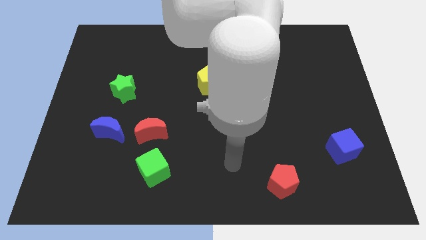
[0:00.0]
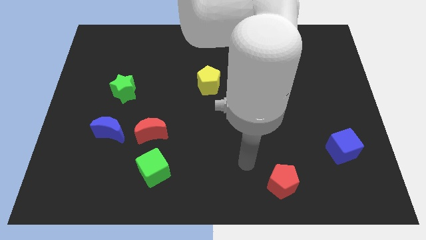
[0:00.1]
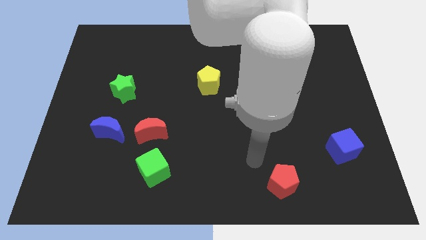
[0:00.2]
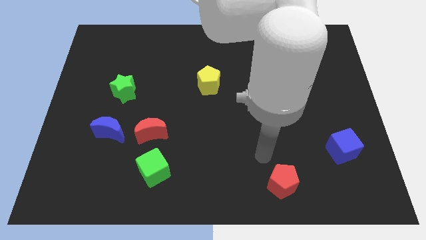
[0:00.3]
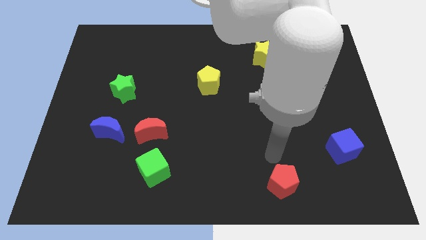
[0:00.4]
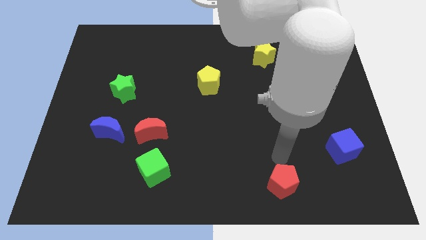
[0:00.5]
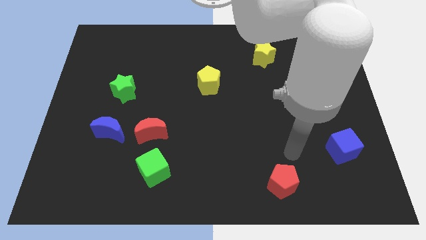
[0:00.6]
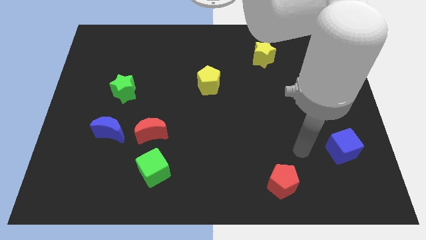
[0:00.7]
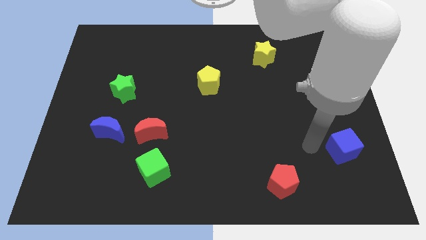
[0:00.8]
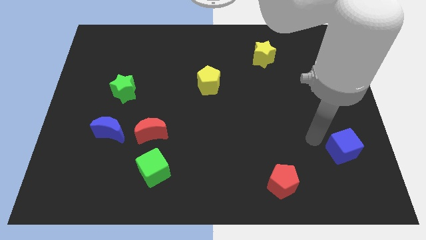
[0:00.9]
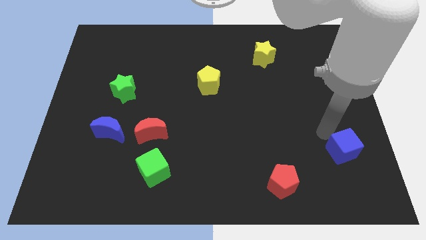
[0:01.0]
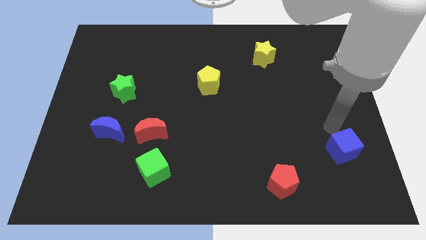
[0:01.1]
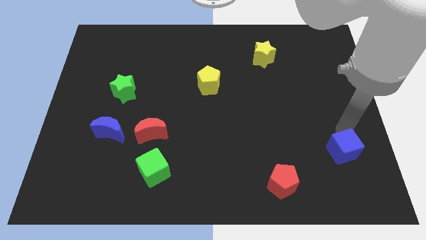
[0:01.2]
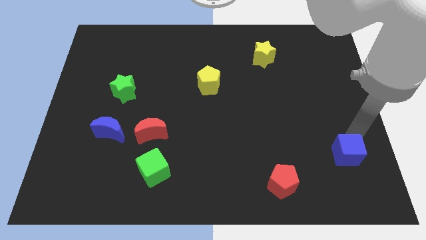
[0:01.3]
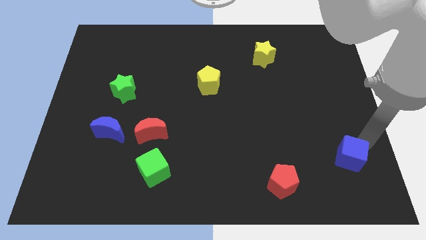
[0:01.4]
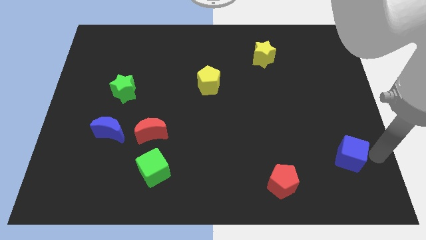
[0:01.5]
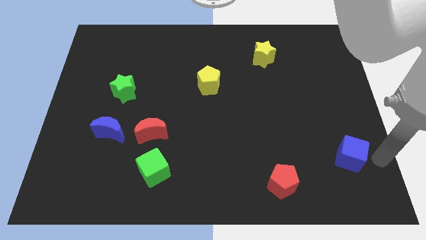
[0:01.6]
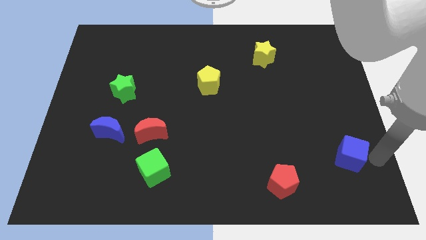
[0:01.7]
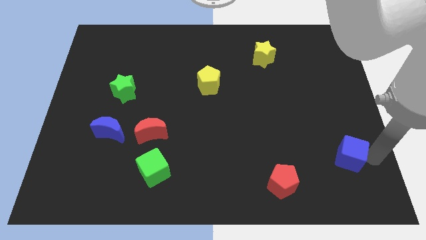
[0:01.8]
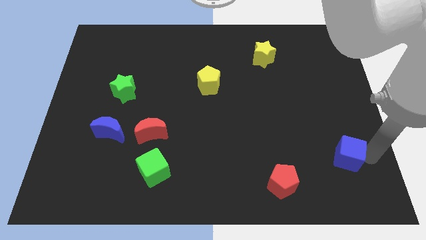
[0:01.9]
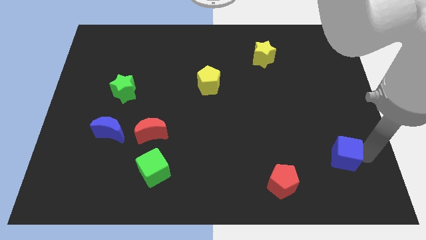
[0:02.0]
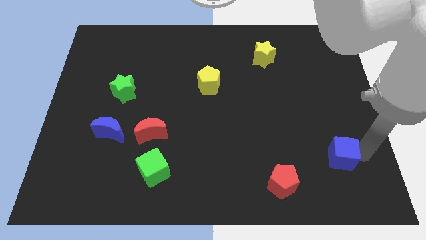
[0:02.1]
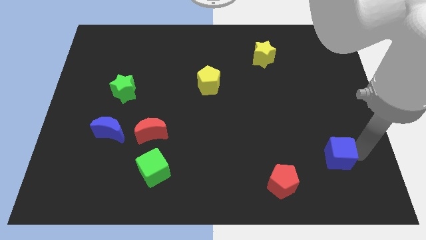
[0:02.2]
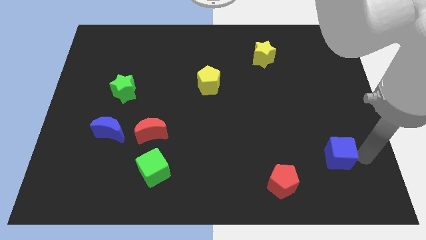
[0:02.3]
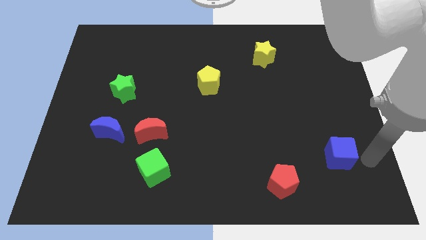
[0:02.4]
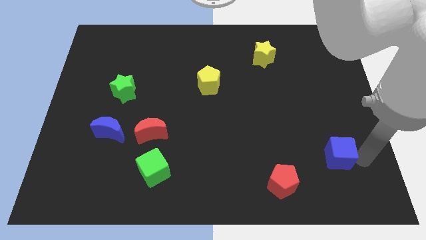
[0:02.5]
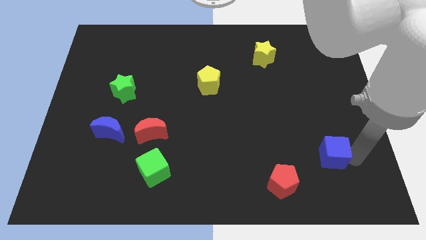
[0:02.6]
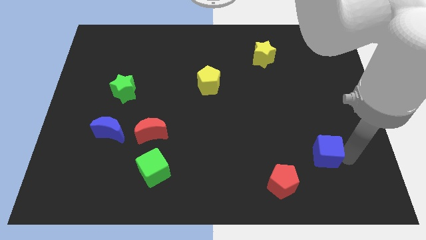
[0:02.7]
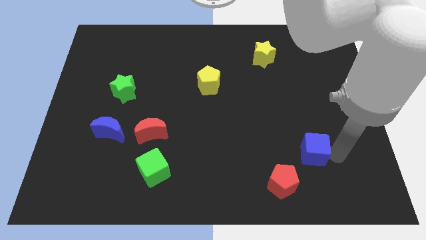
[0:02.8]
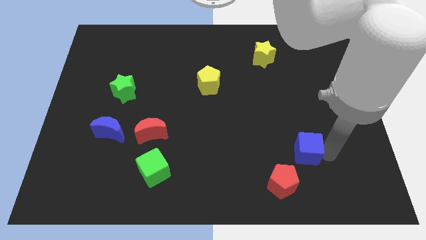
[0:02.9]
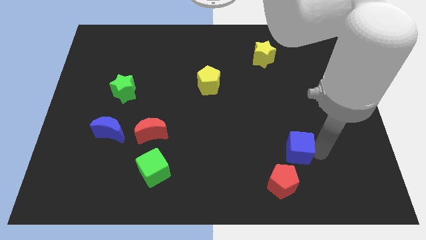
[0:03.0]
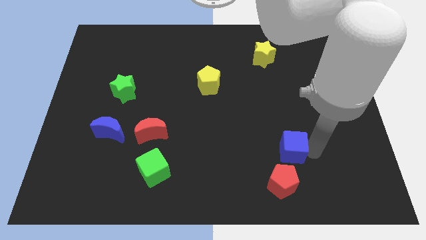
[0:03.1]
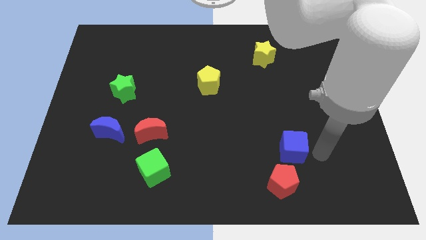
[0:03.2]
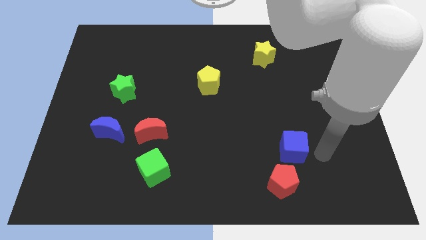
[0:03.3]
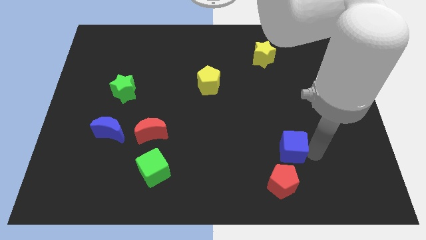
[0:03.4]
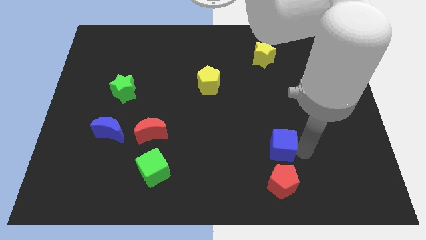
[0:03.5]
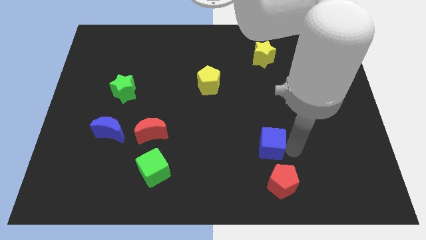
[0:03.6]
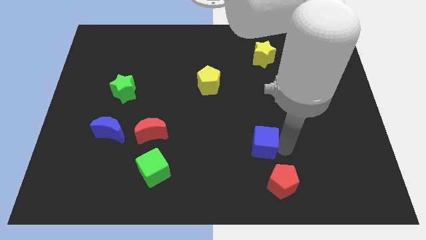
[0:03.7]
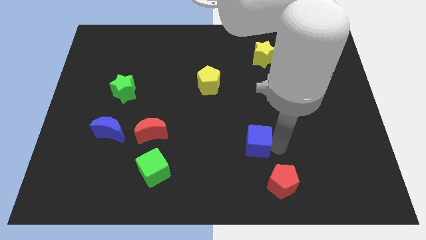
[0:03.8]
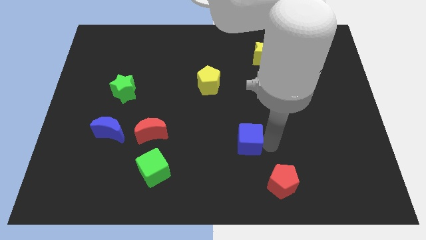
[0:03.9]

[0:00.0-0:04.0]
push the blue cube left

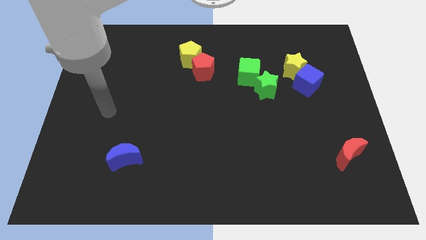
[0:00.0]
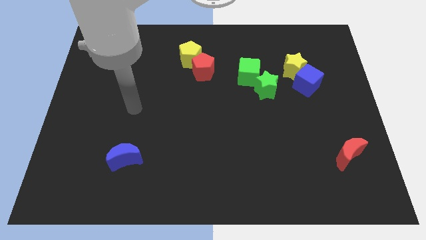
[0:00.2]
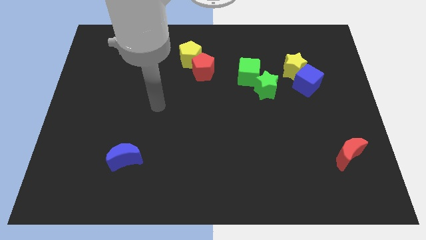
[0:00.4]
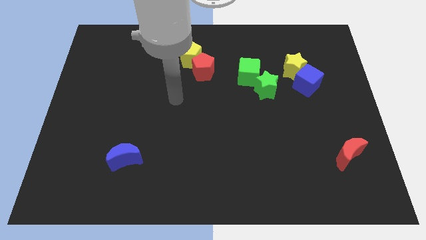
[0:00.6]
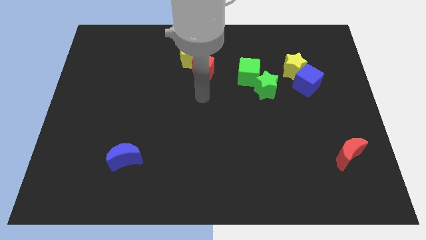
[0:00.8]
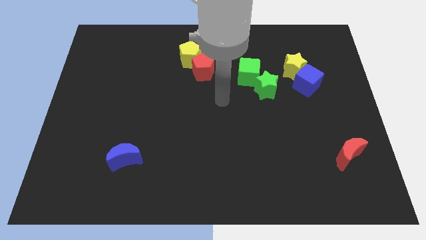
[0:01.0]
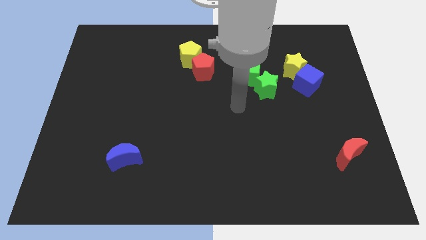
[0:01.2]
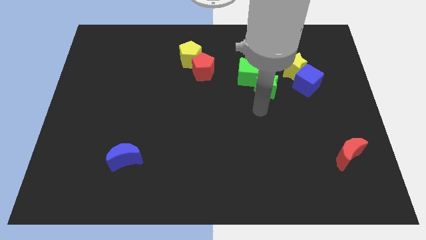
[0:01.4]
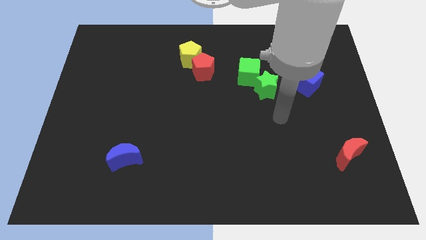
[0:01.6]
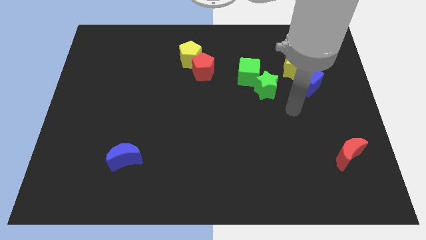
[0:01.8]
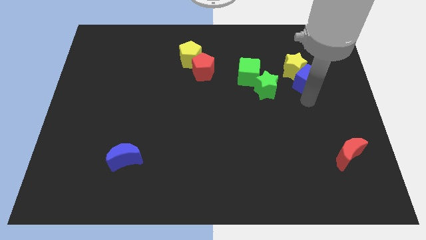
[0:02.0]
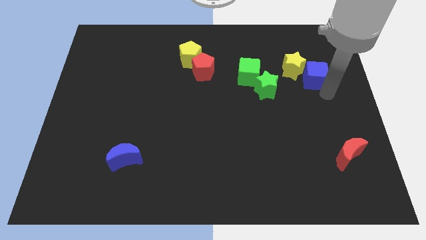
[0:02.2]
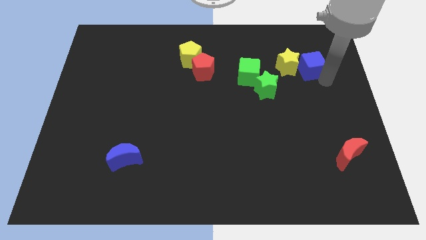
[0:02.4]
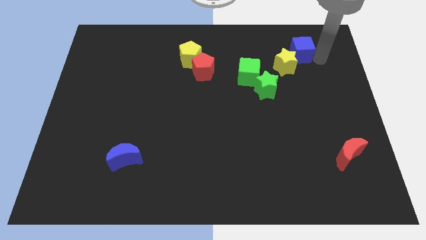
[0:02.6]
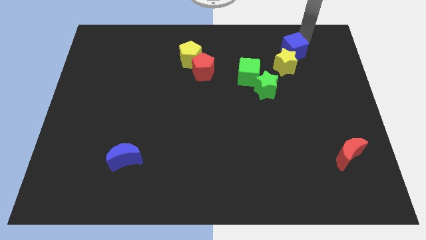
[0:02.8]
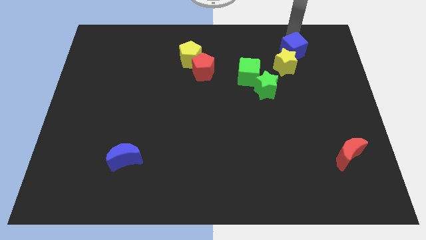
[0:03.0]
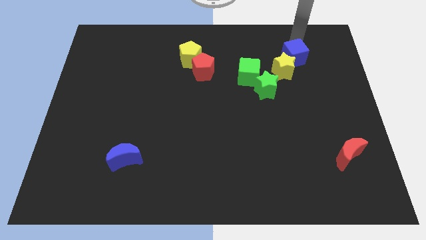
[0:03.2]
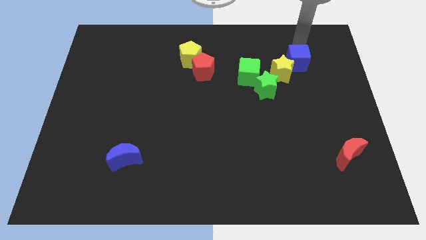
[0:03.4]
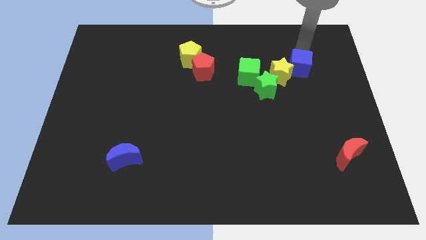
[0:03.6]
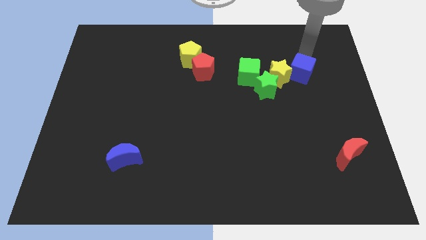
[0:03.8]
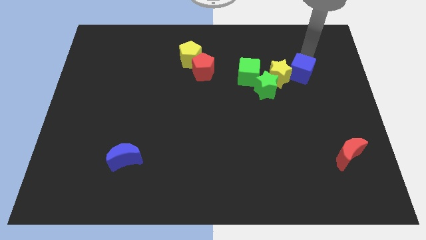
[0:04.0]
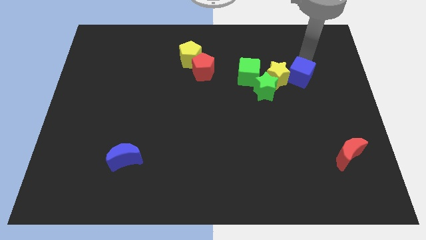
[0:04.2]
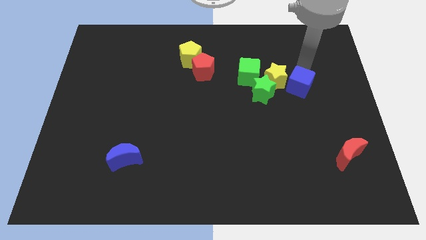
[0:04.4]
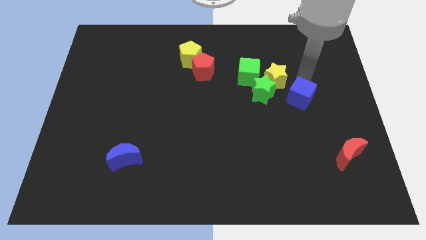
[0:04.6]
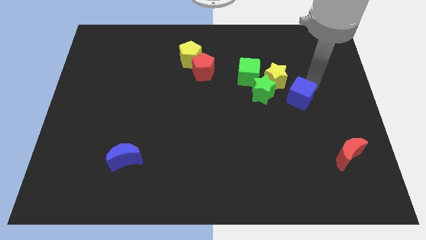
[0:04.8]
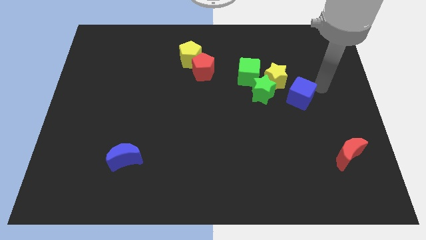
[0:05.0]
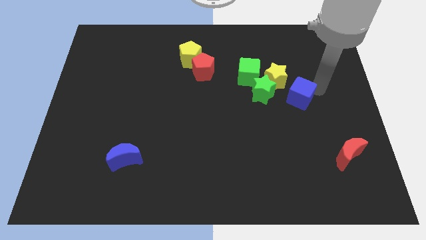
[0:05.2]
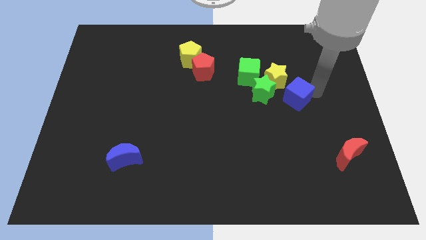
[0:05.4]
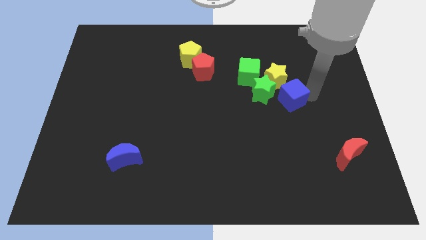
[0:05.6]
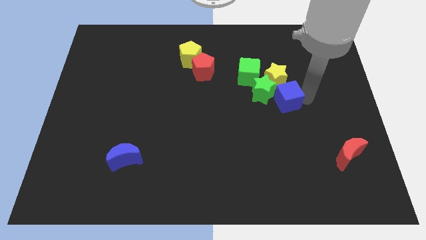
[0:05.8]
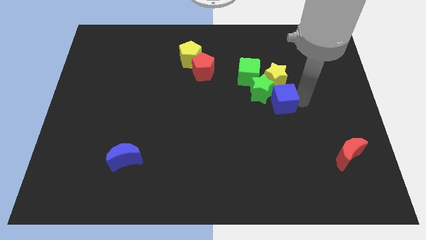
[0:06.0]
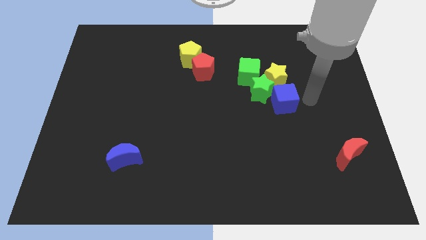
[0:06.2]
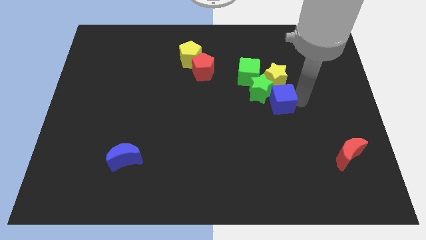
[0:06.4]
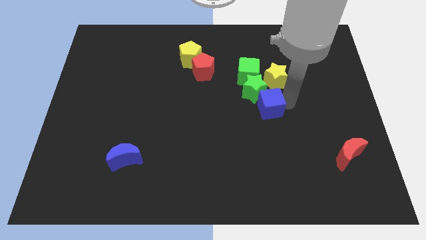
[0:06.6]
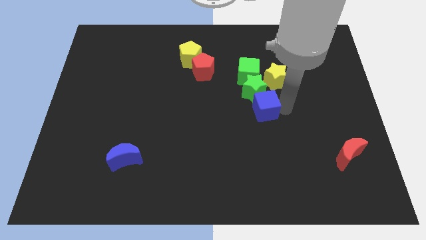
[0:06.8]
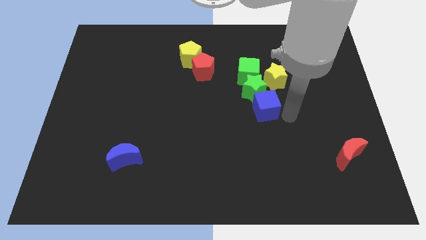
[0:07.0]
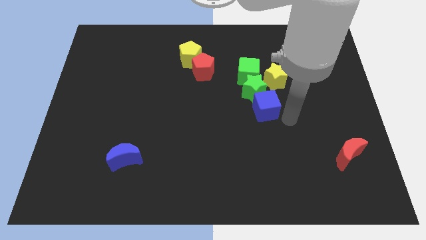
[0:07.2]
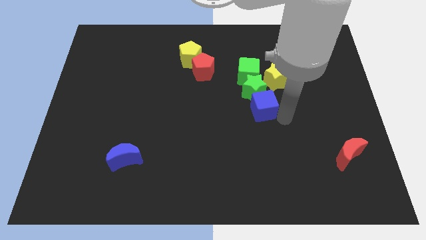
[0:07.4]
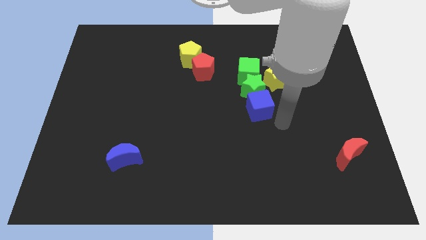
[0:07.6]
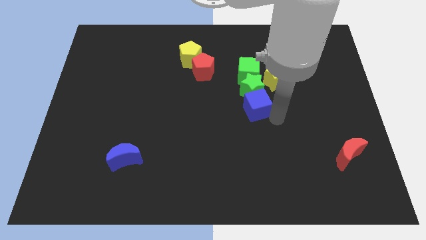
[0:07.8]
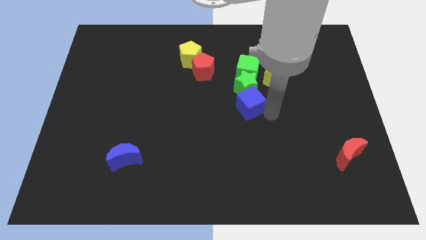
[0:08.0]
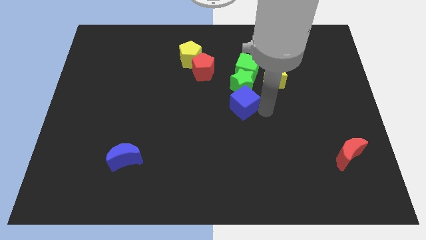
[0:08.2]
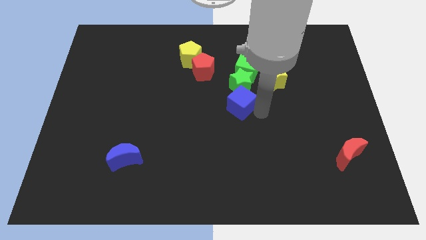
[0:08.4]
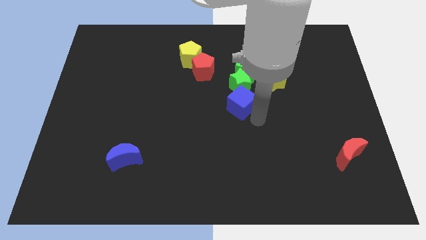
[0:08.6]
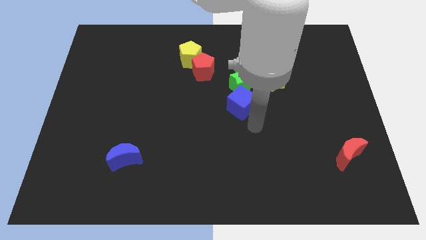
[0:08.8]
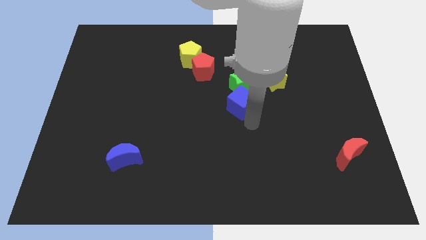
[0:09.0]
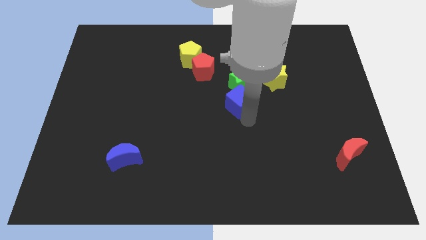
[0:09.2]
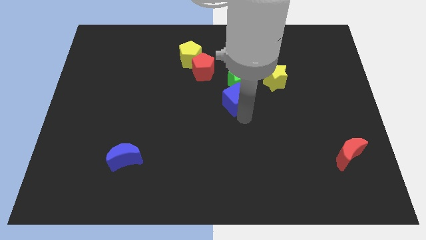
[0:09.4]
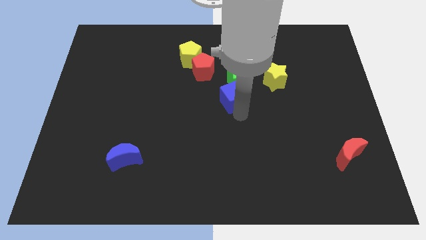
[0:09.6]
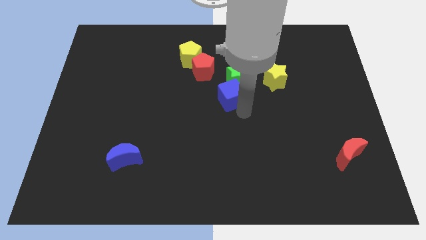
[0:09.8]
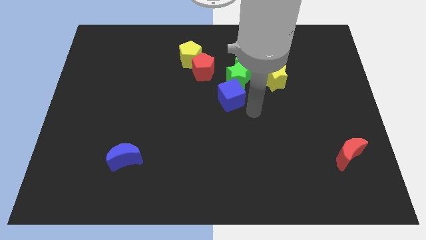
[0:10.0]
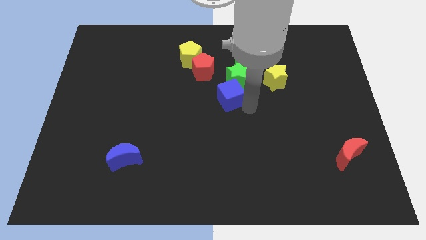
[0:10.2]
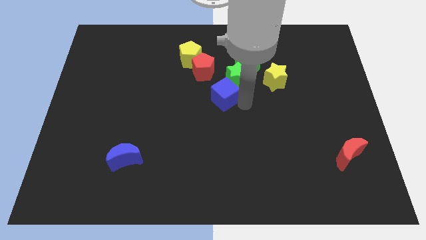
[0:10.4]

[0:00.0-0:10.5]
push the blue cube to the left
